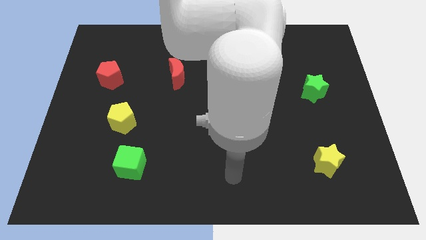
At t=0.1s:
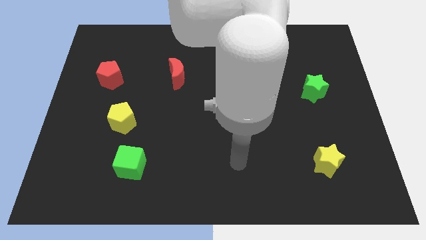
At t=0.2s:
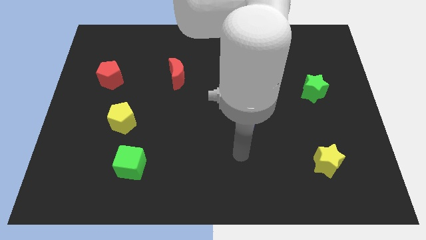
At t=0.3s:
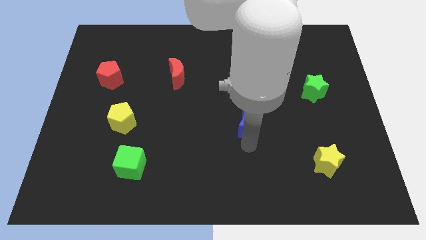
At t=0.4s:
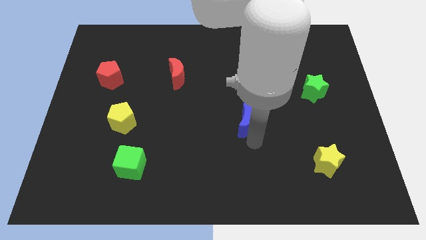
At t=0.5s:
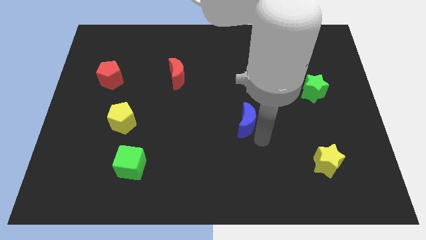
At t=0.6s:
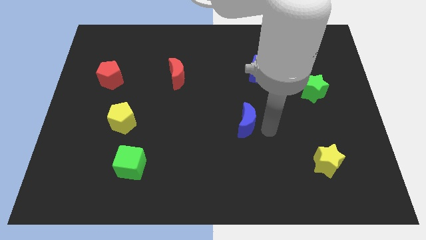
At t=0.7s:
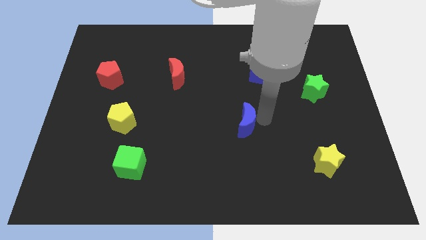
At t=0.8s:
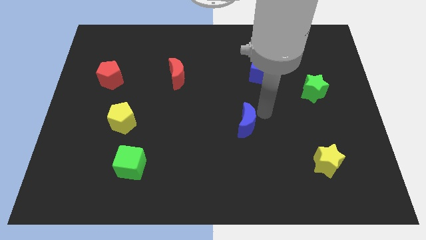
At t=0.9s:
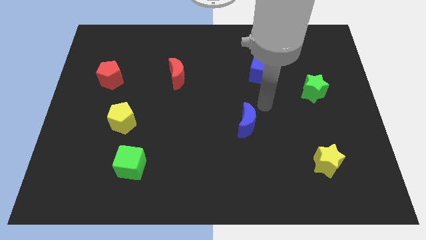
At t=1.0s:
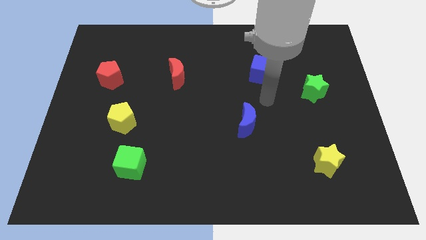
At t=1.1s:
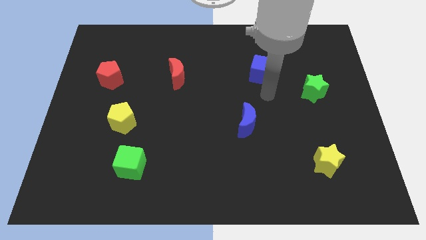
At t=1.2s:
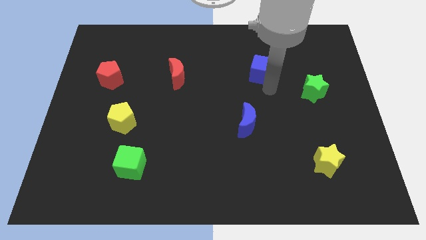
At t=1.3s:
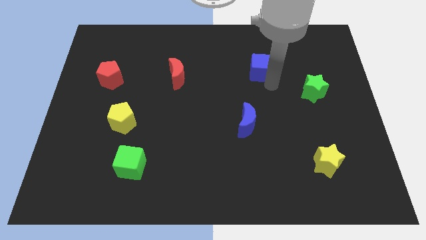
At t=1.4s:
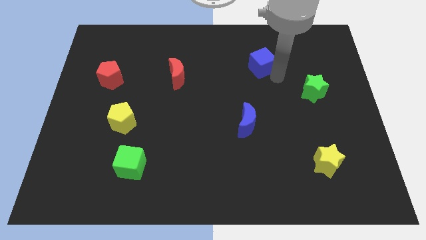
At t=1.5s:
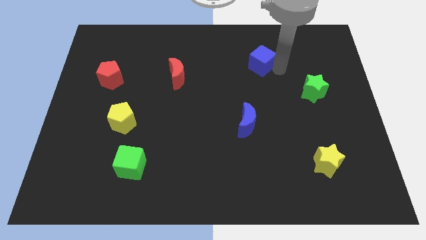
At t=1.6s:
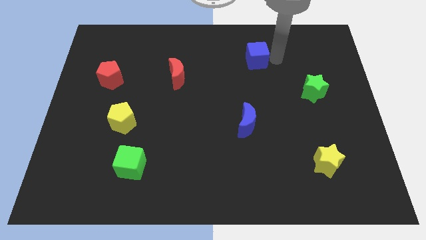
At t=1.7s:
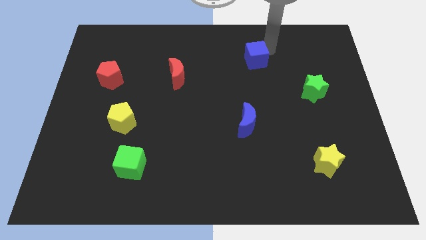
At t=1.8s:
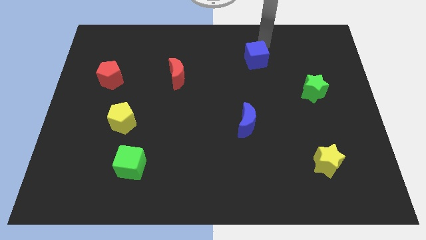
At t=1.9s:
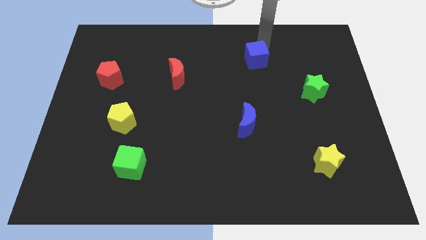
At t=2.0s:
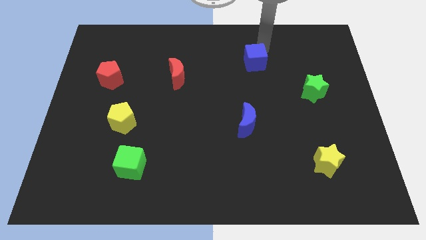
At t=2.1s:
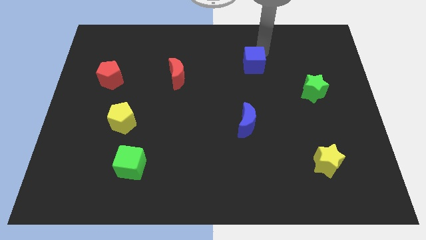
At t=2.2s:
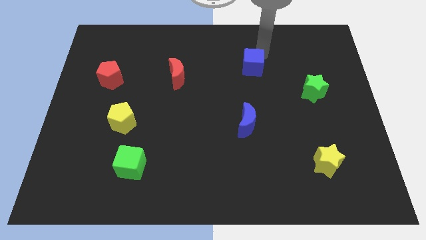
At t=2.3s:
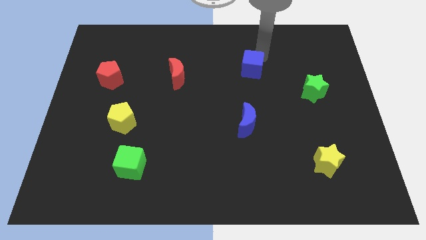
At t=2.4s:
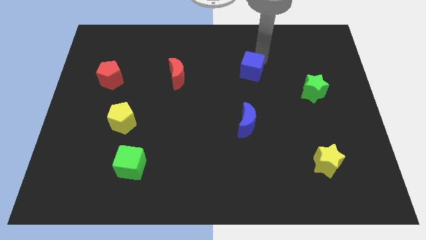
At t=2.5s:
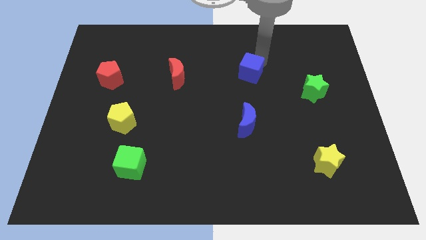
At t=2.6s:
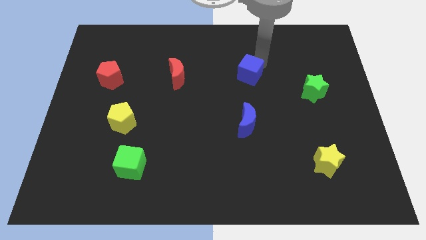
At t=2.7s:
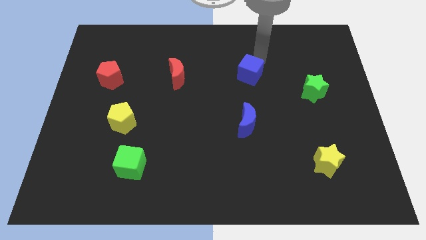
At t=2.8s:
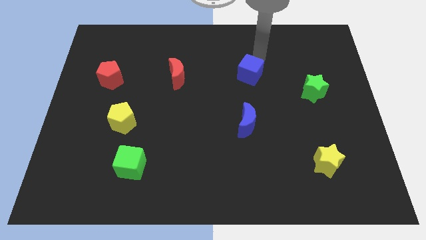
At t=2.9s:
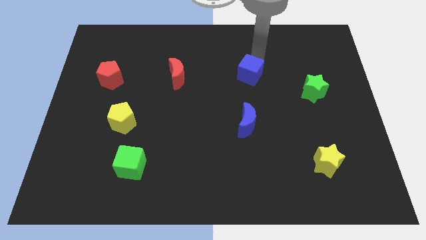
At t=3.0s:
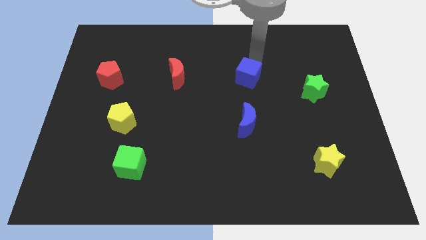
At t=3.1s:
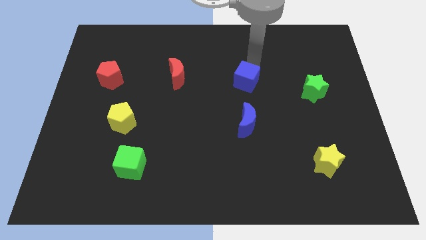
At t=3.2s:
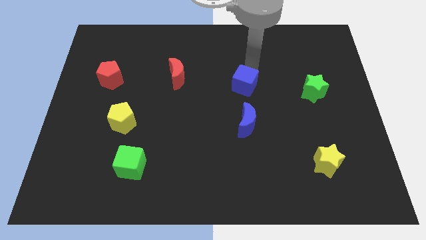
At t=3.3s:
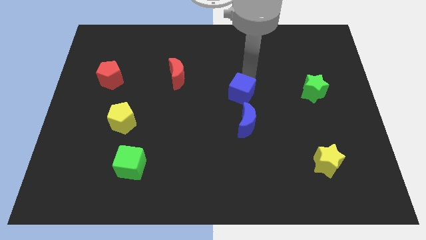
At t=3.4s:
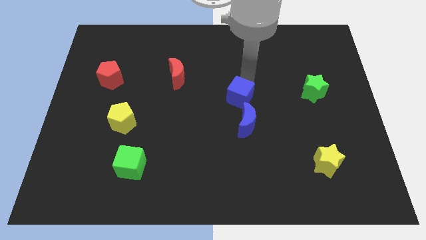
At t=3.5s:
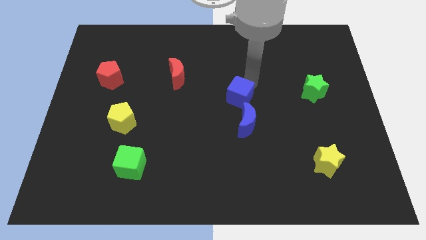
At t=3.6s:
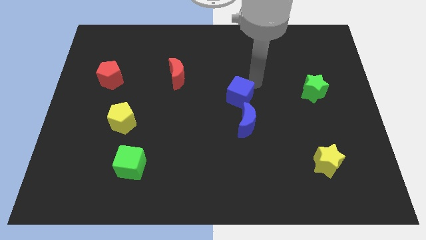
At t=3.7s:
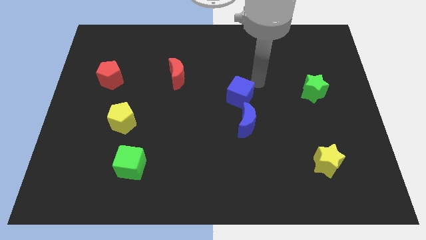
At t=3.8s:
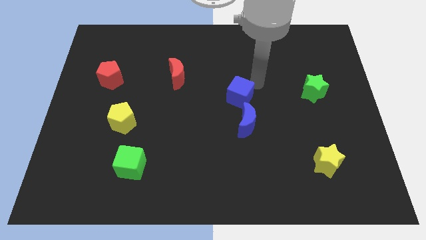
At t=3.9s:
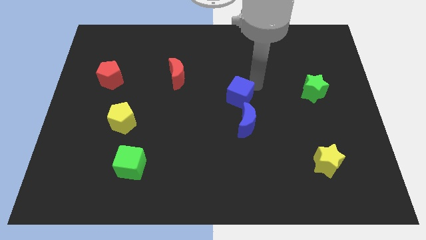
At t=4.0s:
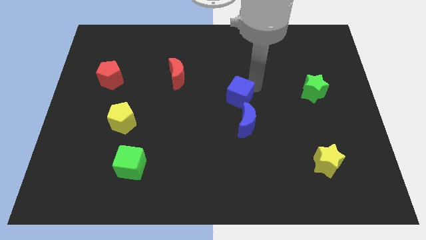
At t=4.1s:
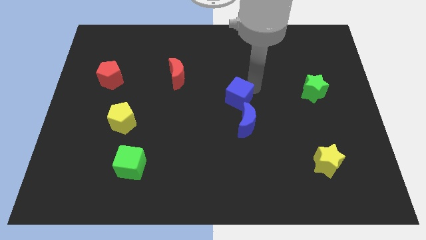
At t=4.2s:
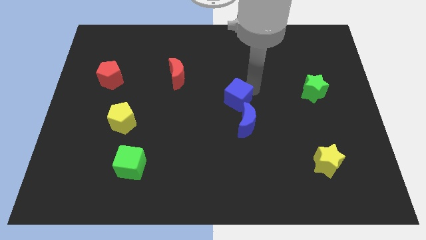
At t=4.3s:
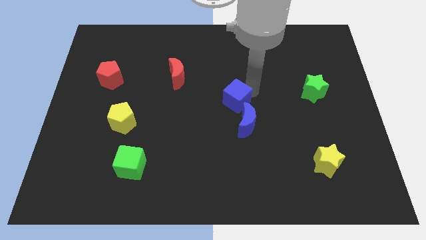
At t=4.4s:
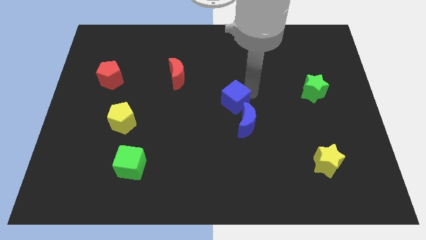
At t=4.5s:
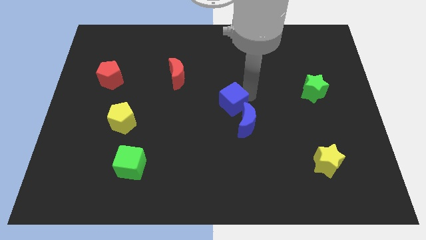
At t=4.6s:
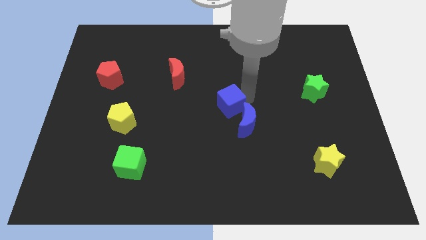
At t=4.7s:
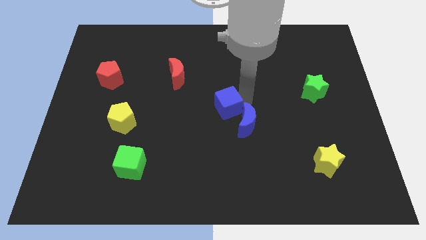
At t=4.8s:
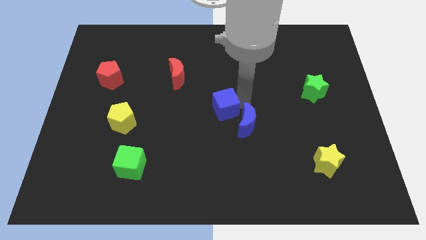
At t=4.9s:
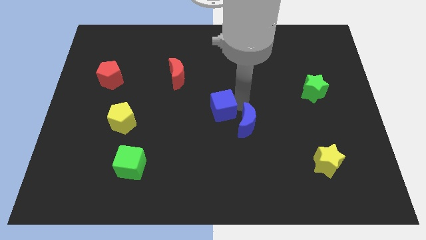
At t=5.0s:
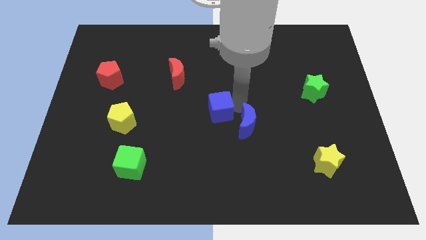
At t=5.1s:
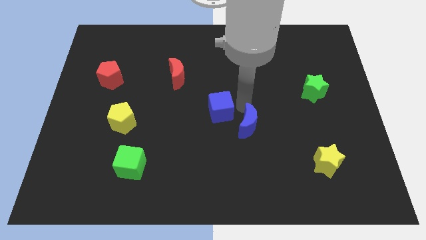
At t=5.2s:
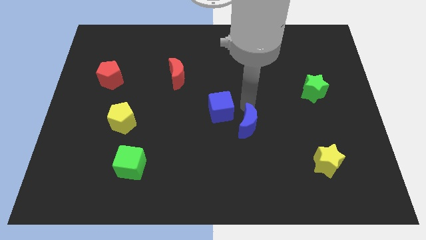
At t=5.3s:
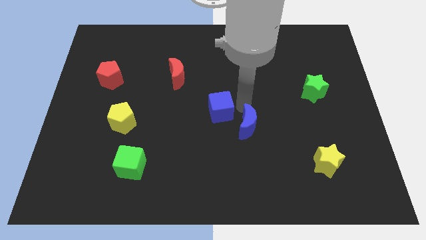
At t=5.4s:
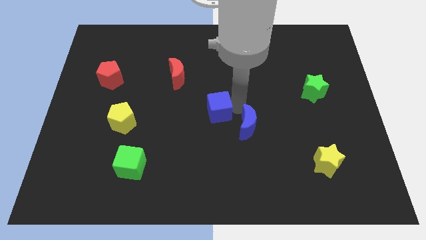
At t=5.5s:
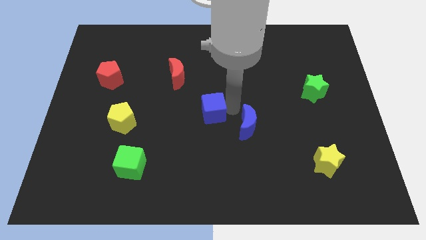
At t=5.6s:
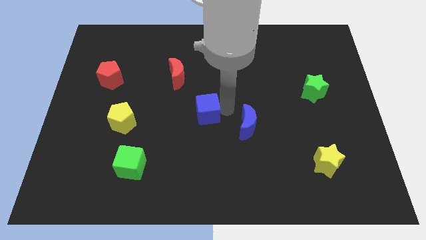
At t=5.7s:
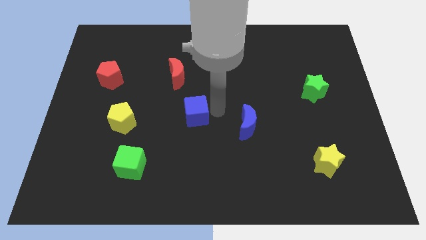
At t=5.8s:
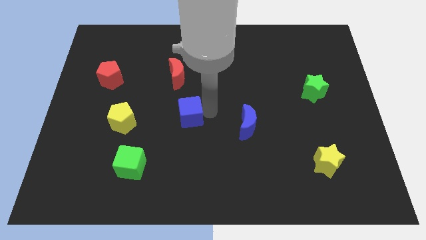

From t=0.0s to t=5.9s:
push the blue cube just right of the yellow pentagon

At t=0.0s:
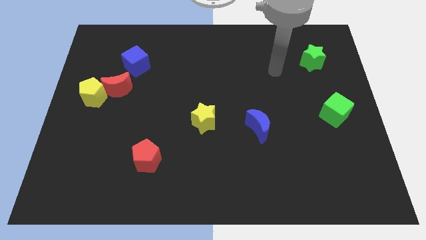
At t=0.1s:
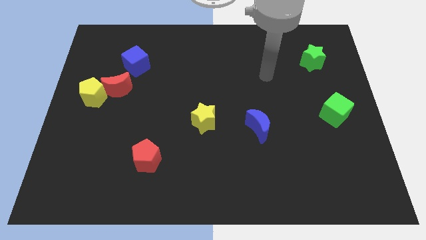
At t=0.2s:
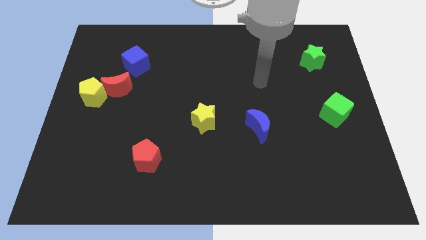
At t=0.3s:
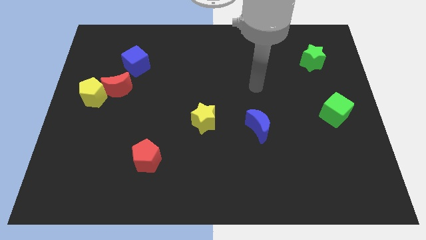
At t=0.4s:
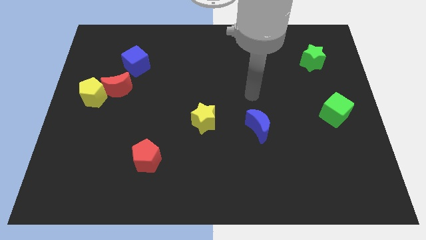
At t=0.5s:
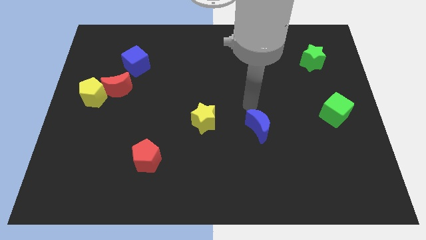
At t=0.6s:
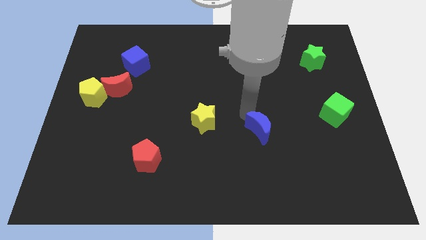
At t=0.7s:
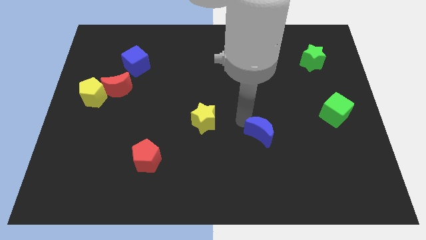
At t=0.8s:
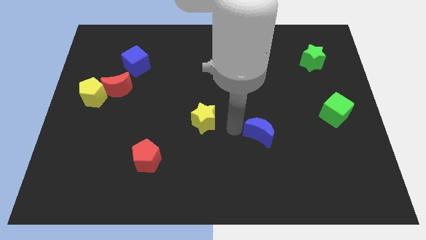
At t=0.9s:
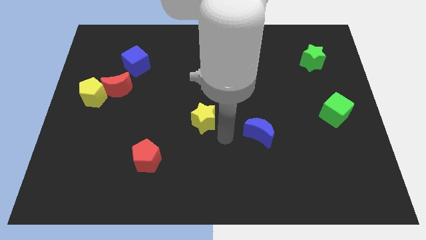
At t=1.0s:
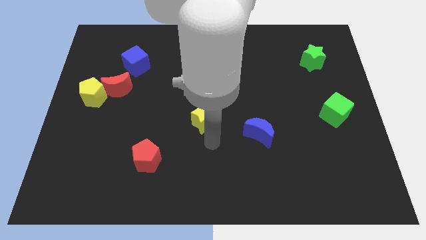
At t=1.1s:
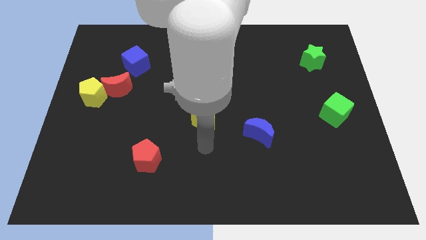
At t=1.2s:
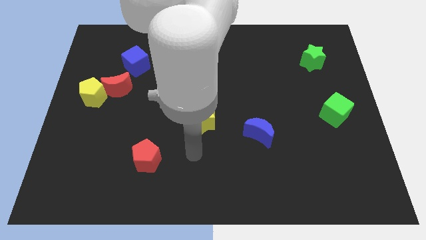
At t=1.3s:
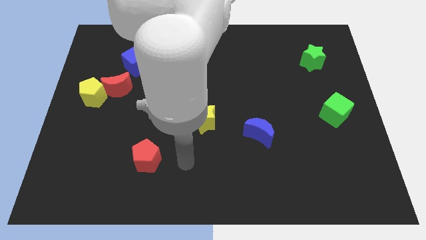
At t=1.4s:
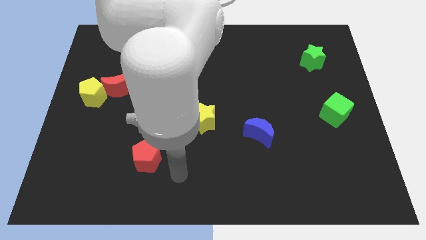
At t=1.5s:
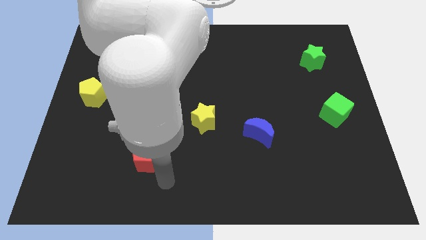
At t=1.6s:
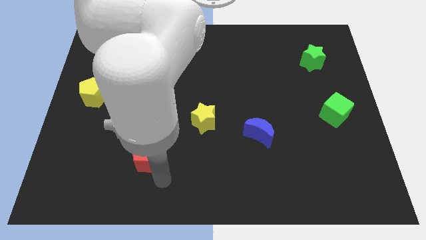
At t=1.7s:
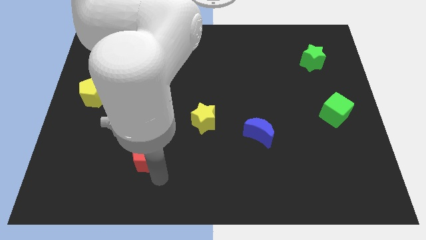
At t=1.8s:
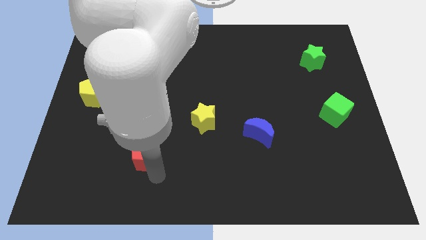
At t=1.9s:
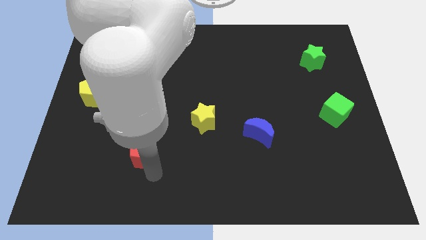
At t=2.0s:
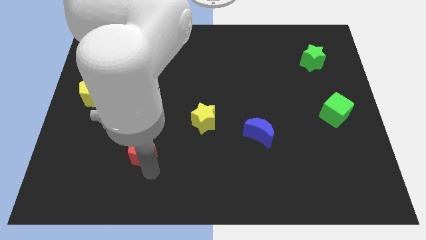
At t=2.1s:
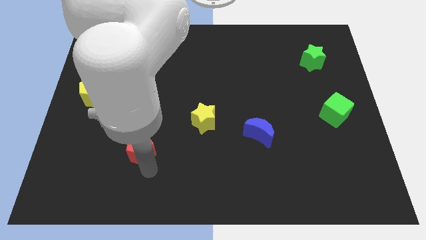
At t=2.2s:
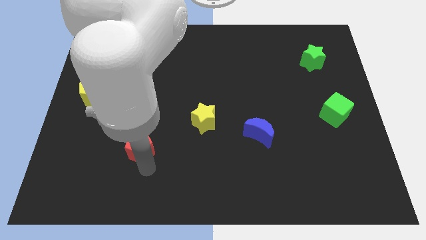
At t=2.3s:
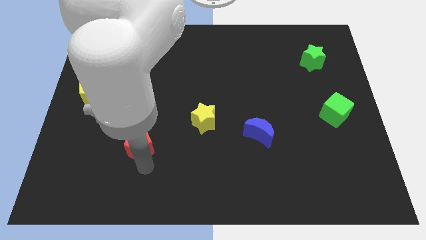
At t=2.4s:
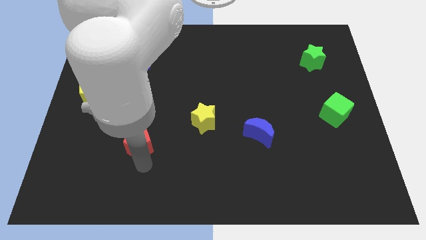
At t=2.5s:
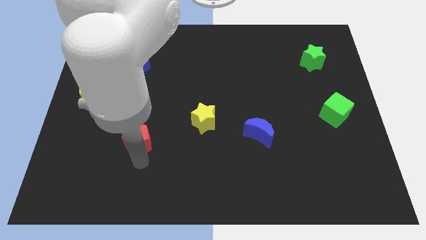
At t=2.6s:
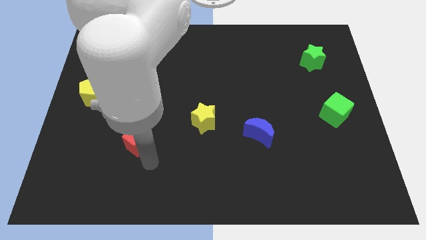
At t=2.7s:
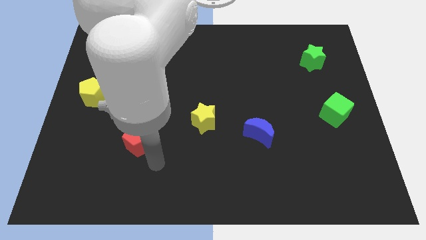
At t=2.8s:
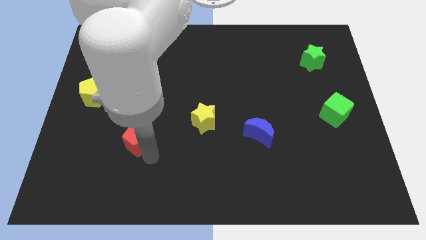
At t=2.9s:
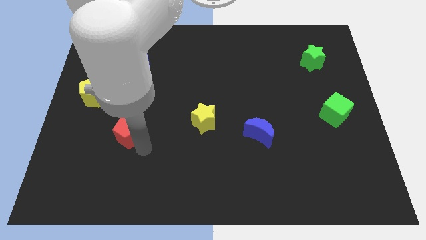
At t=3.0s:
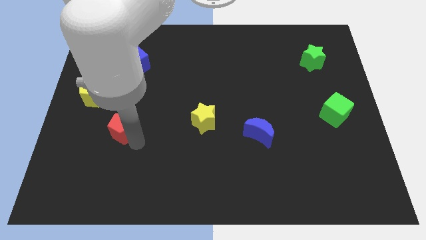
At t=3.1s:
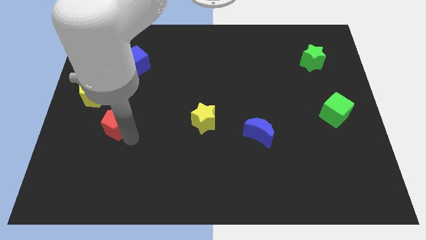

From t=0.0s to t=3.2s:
slide the red pentagon diagonally down and to the right of the yellow pentagon
